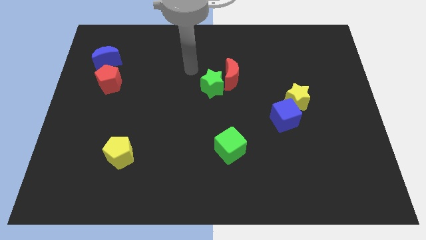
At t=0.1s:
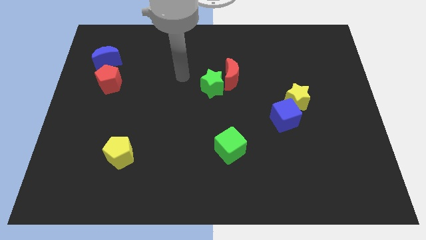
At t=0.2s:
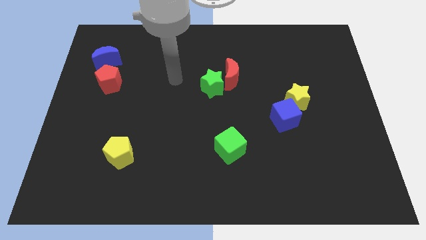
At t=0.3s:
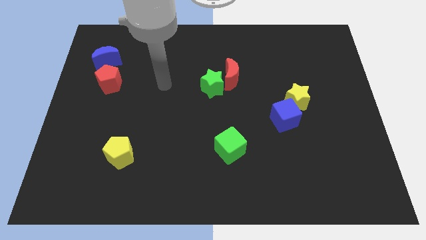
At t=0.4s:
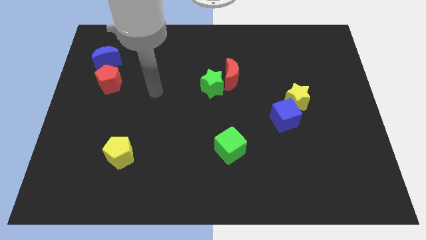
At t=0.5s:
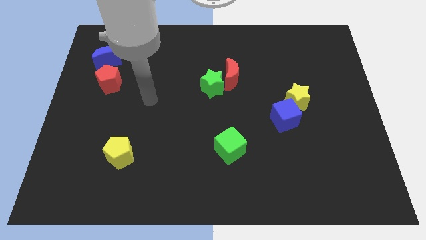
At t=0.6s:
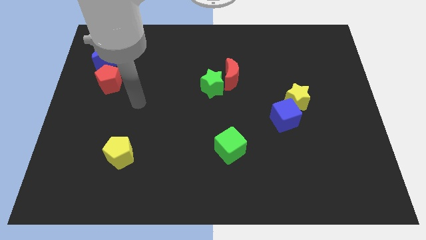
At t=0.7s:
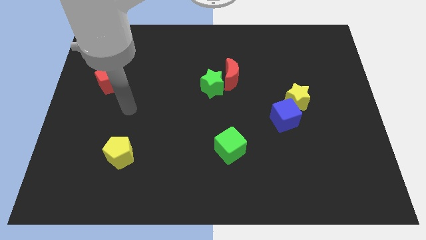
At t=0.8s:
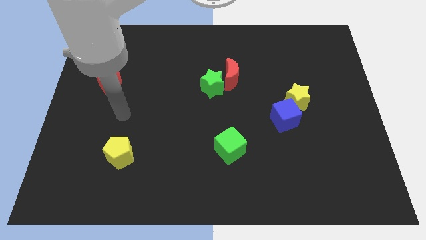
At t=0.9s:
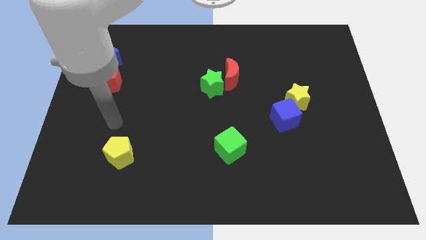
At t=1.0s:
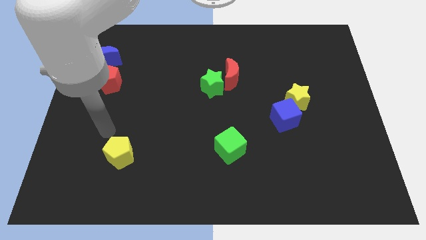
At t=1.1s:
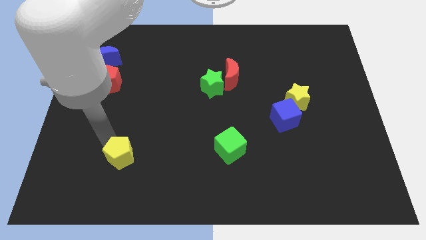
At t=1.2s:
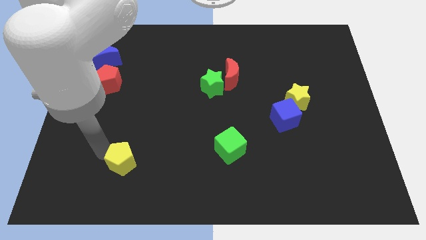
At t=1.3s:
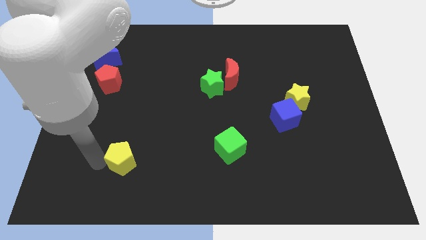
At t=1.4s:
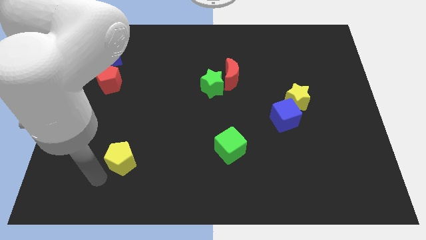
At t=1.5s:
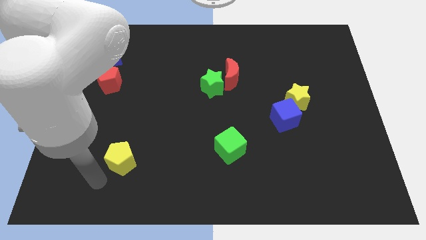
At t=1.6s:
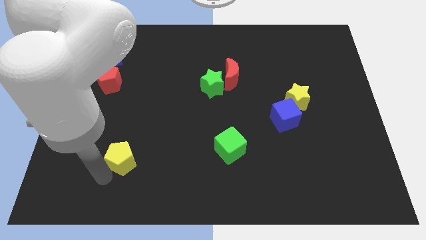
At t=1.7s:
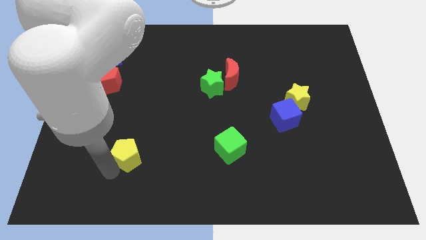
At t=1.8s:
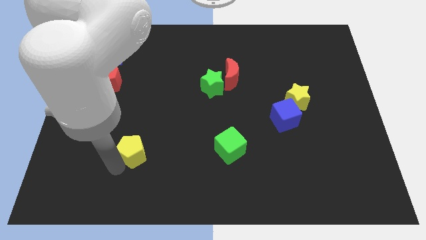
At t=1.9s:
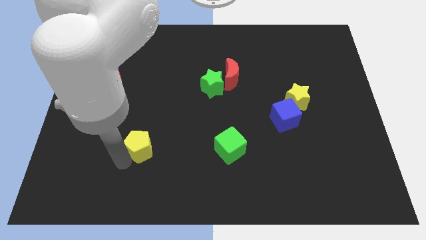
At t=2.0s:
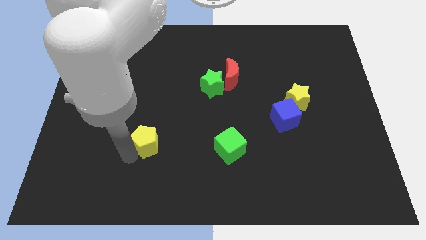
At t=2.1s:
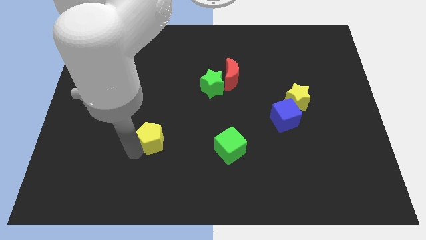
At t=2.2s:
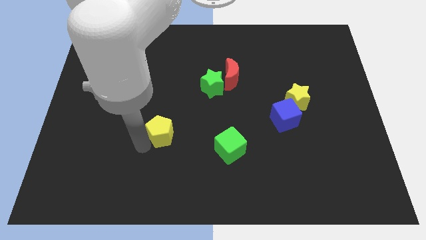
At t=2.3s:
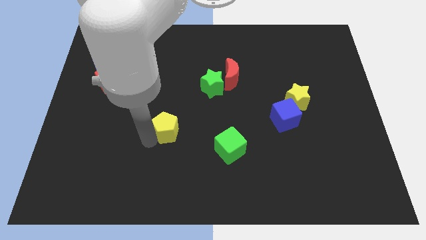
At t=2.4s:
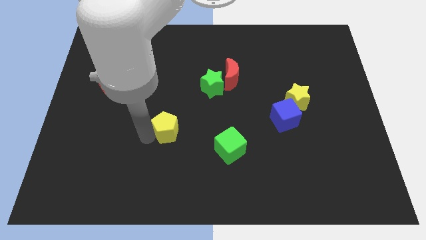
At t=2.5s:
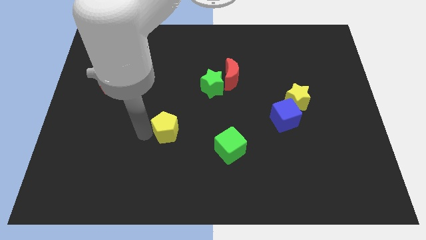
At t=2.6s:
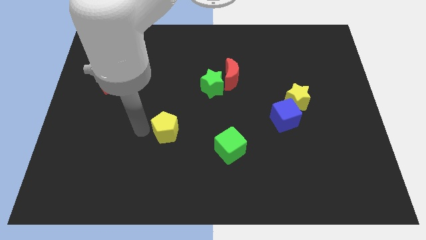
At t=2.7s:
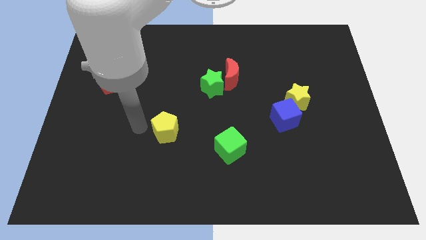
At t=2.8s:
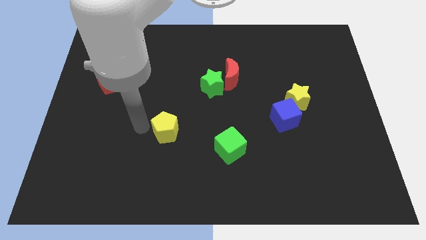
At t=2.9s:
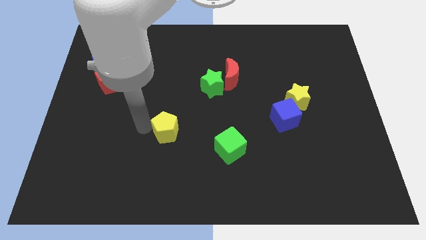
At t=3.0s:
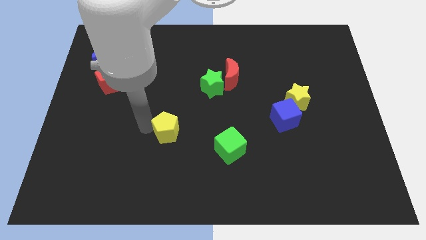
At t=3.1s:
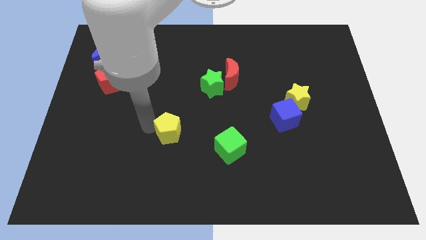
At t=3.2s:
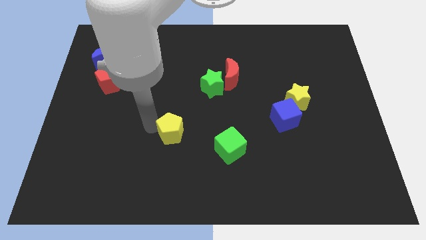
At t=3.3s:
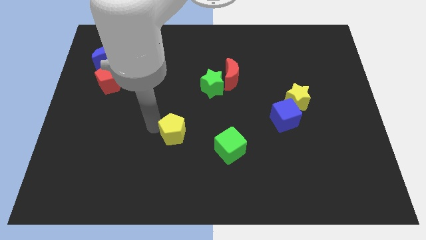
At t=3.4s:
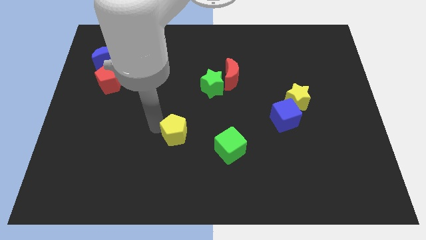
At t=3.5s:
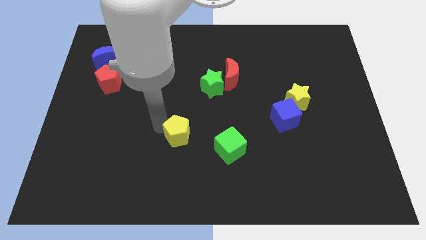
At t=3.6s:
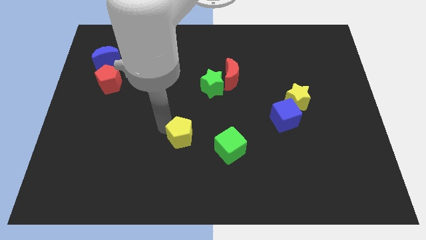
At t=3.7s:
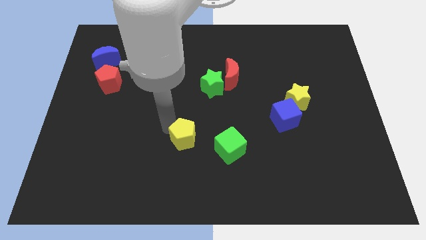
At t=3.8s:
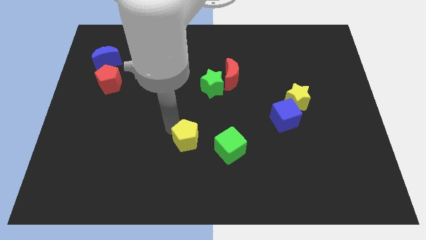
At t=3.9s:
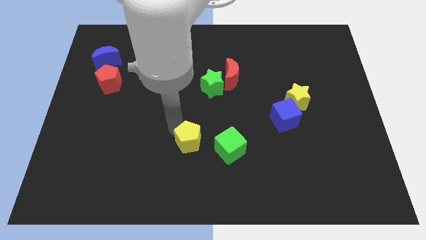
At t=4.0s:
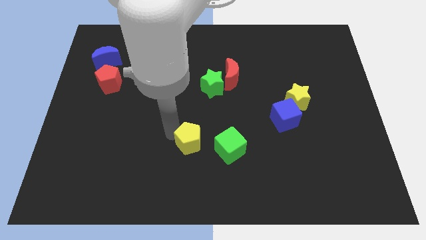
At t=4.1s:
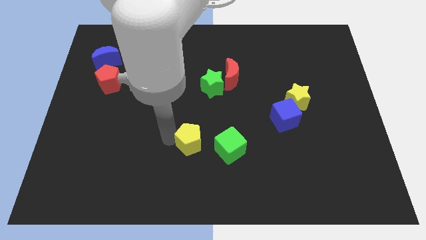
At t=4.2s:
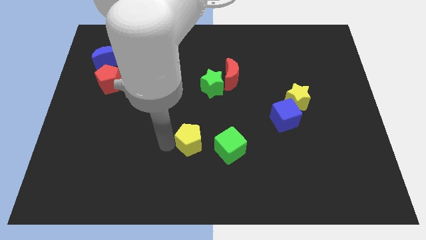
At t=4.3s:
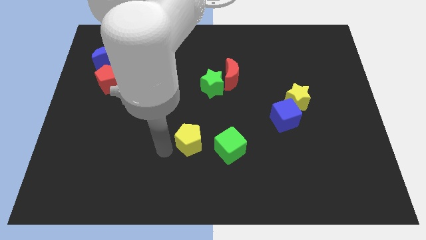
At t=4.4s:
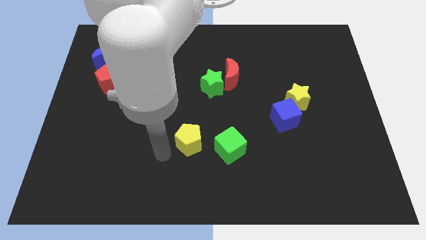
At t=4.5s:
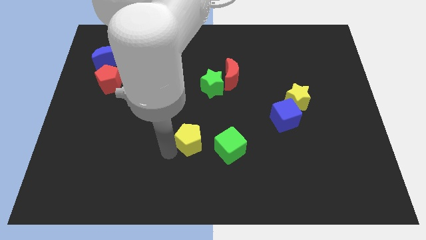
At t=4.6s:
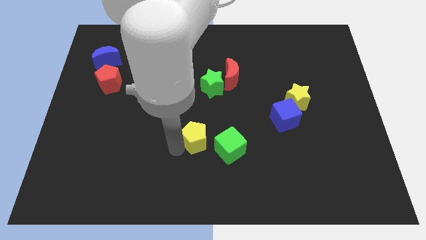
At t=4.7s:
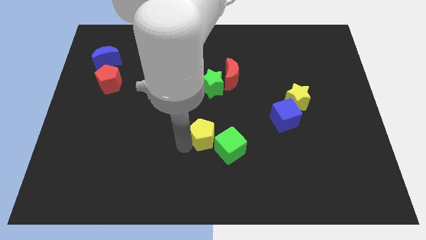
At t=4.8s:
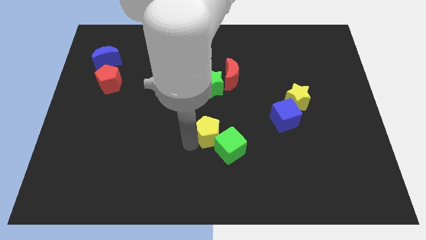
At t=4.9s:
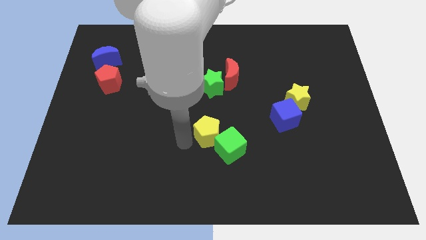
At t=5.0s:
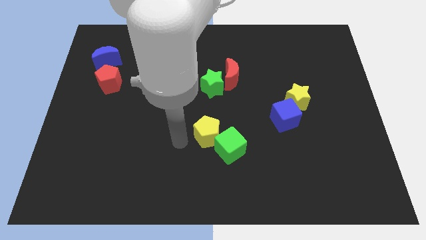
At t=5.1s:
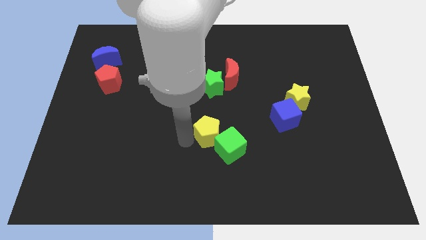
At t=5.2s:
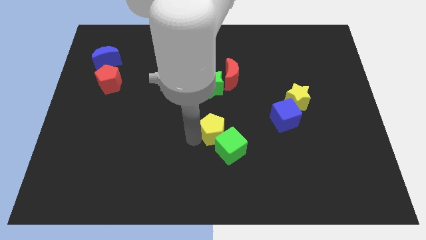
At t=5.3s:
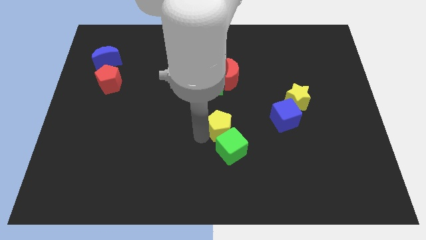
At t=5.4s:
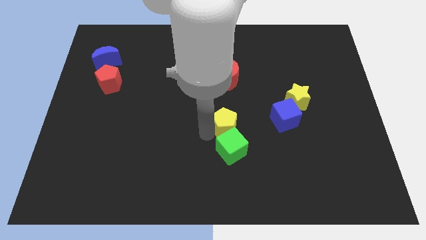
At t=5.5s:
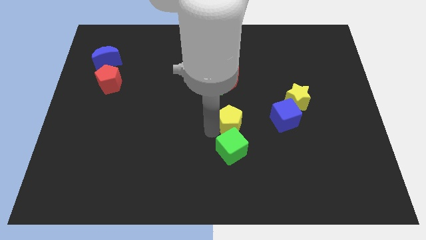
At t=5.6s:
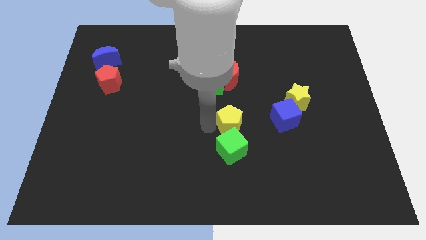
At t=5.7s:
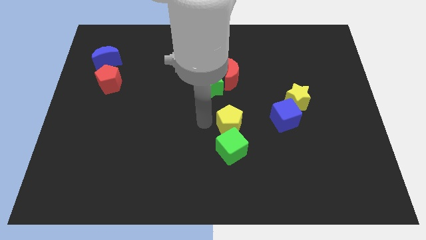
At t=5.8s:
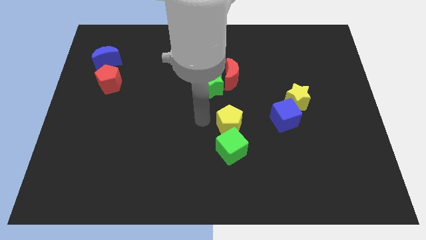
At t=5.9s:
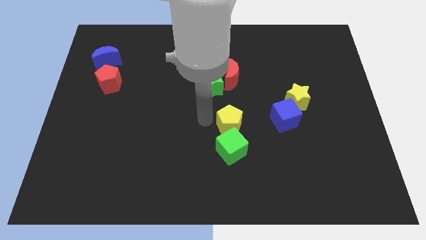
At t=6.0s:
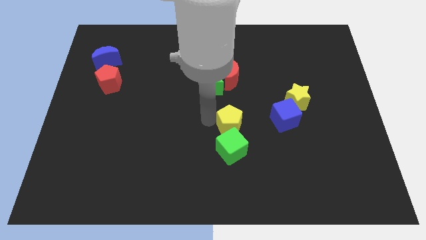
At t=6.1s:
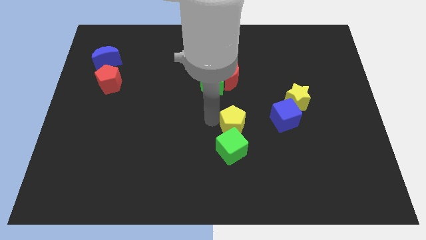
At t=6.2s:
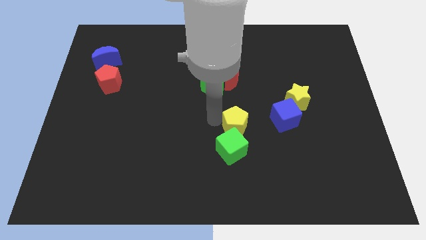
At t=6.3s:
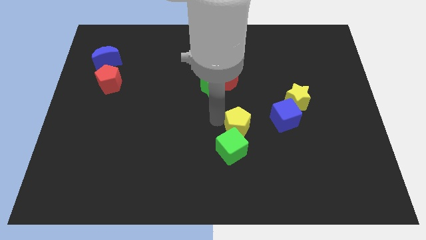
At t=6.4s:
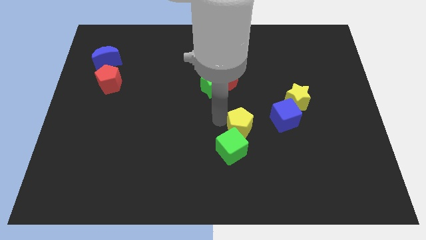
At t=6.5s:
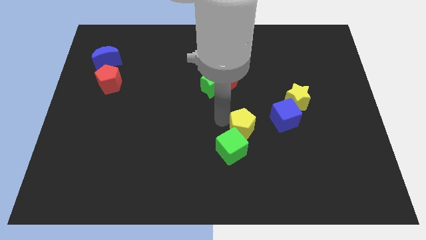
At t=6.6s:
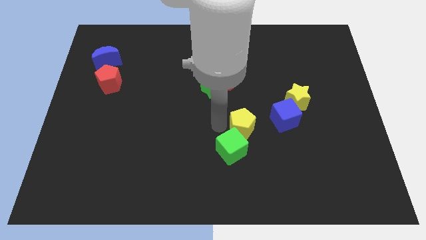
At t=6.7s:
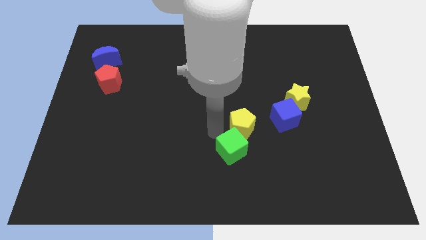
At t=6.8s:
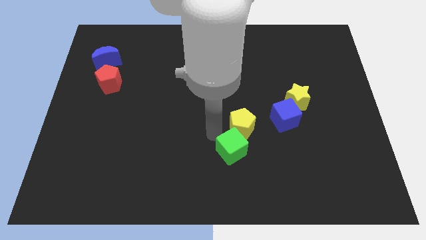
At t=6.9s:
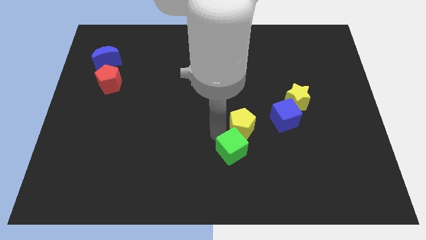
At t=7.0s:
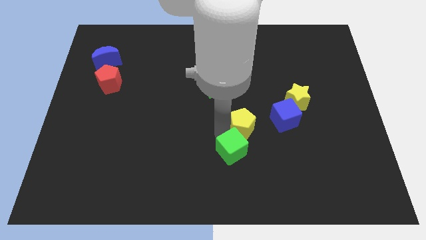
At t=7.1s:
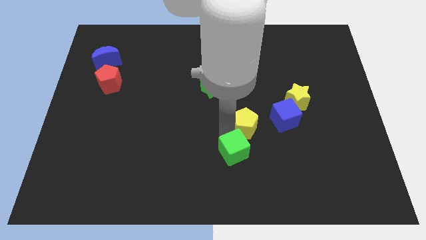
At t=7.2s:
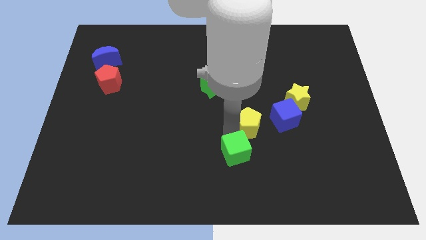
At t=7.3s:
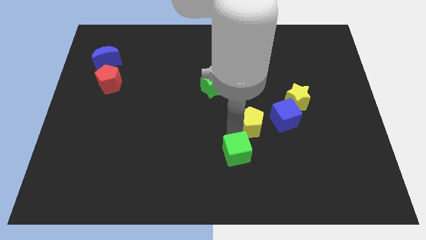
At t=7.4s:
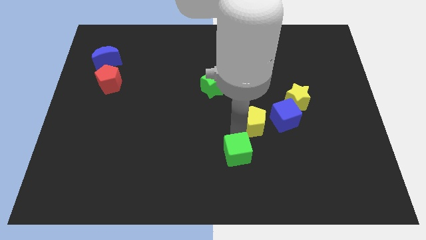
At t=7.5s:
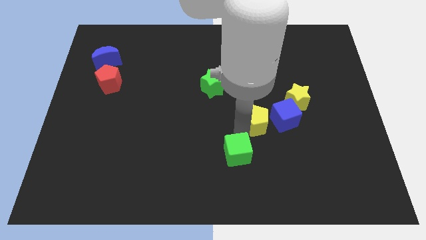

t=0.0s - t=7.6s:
move the yellow pentagon diagonally down and to the left of the yellow star
